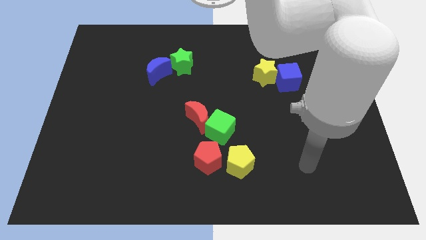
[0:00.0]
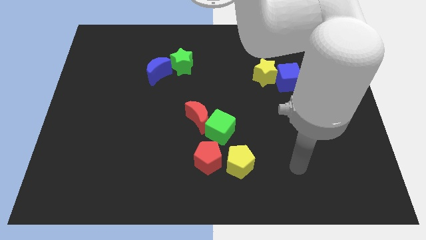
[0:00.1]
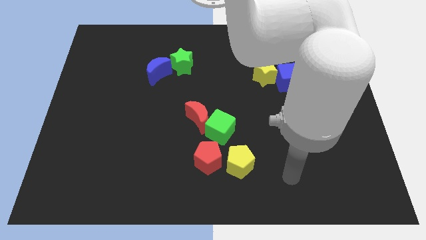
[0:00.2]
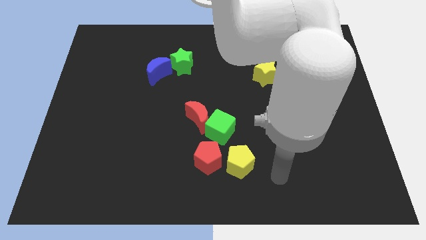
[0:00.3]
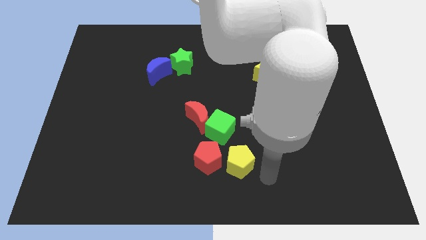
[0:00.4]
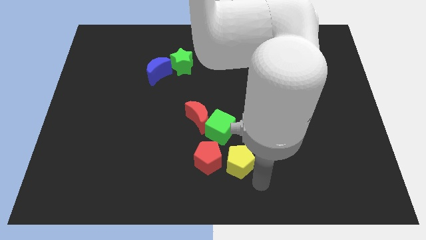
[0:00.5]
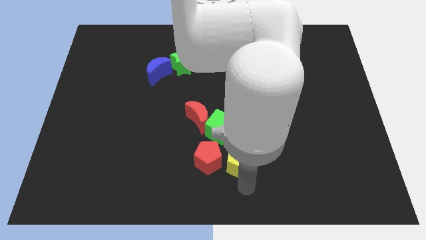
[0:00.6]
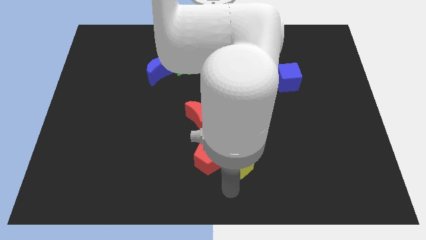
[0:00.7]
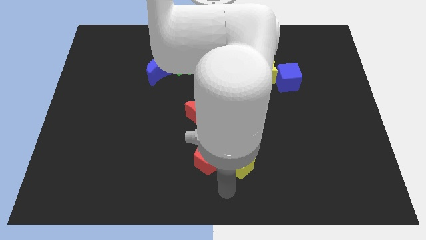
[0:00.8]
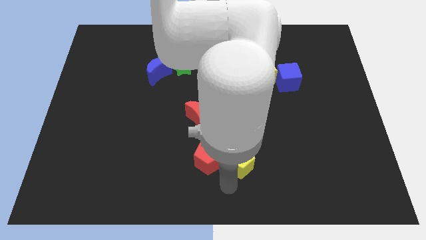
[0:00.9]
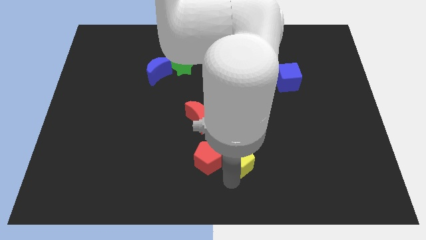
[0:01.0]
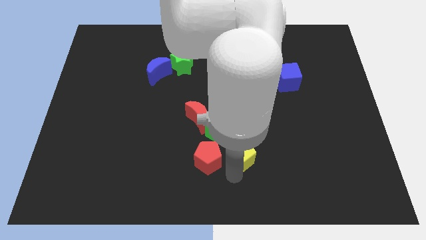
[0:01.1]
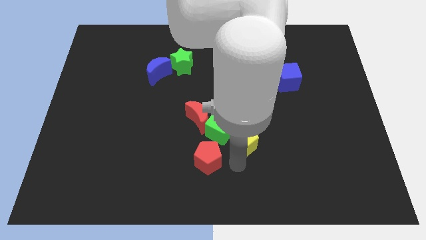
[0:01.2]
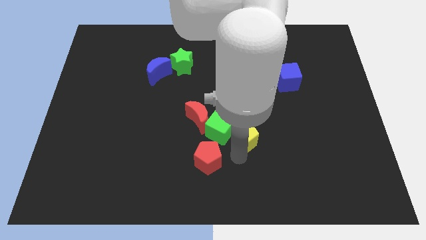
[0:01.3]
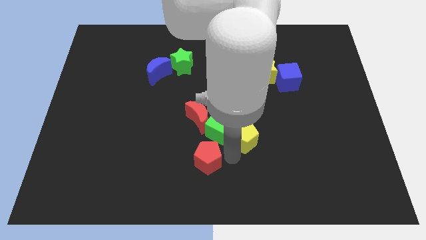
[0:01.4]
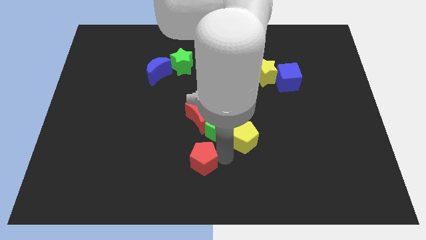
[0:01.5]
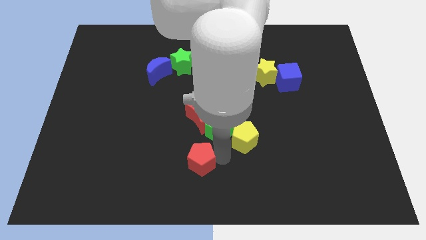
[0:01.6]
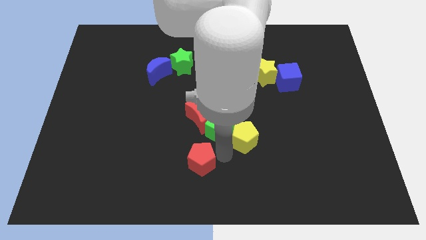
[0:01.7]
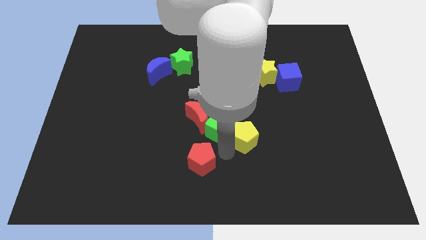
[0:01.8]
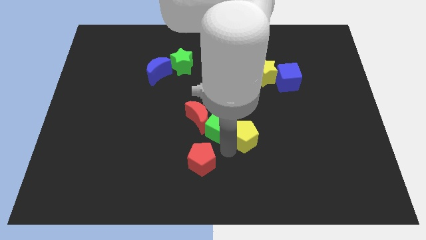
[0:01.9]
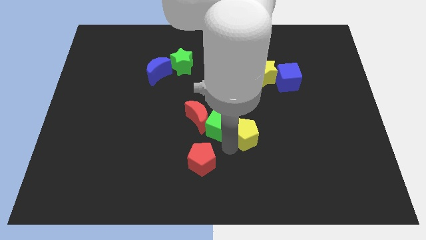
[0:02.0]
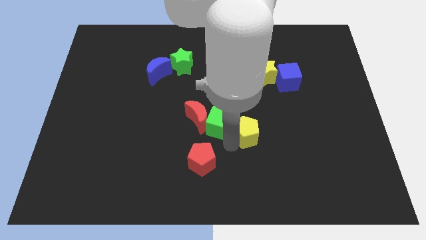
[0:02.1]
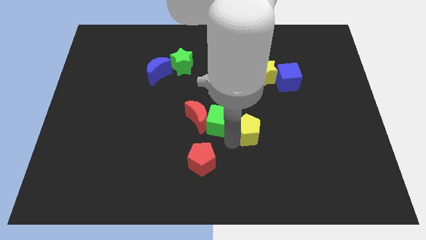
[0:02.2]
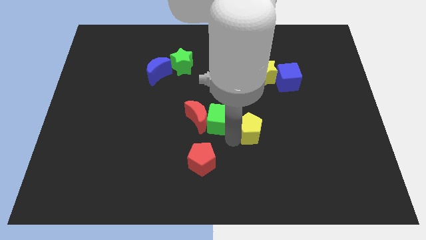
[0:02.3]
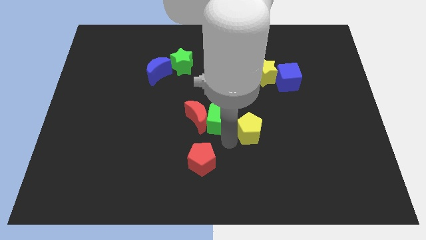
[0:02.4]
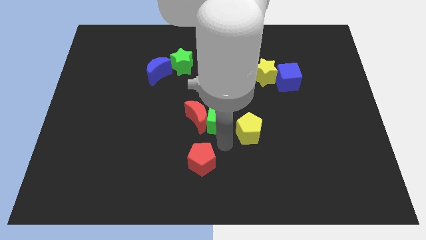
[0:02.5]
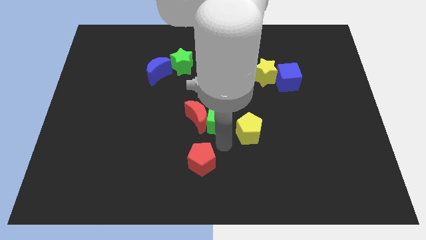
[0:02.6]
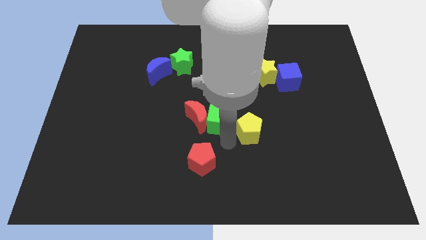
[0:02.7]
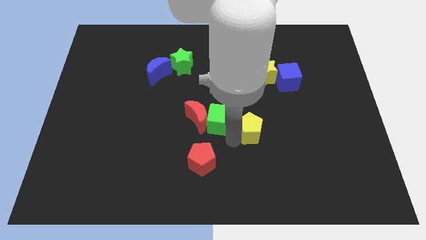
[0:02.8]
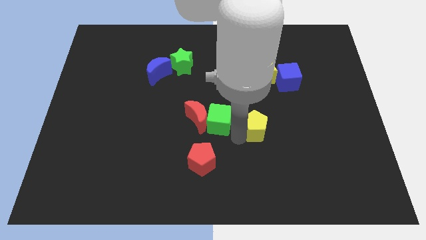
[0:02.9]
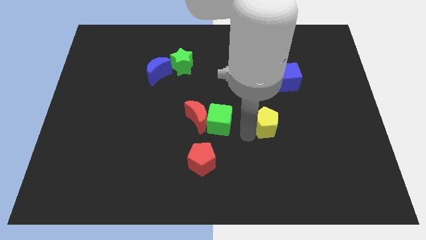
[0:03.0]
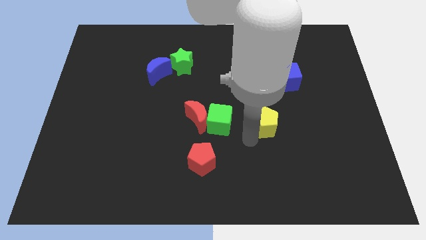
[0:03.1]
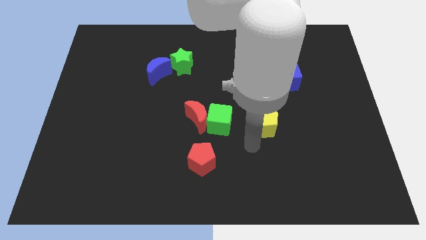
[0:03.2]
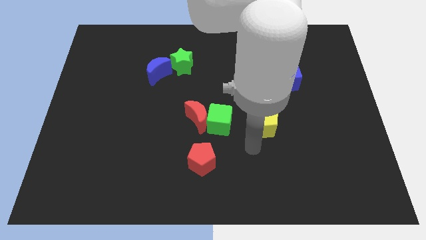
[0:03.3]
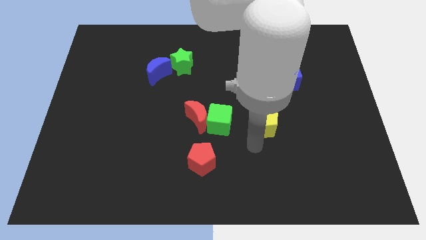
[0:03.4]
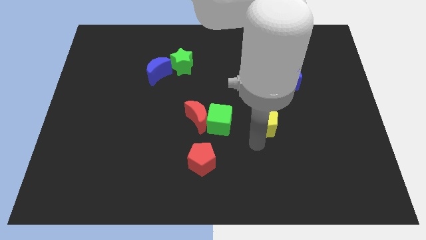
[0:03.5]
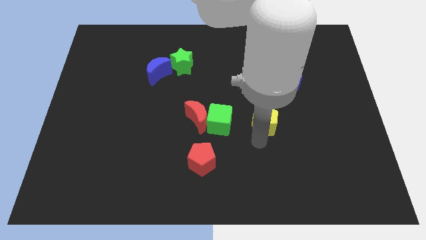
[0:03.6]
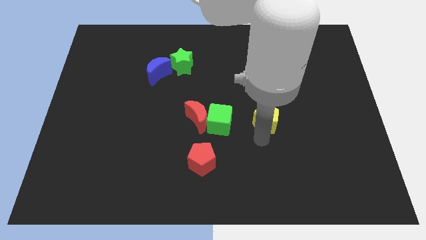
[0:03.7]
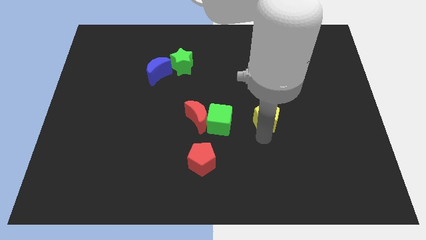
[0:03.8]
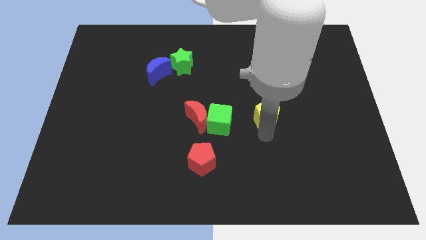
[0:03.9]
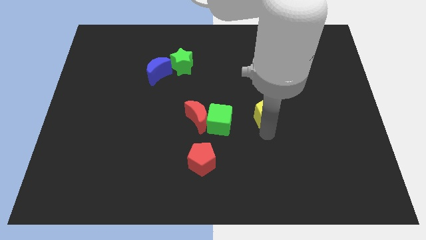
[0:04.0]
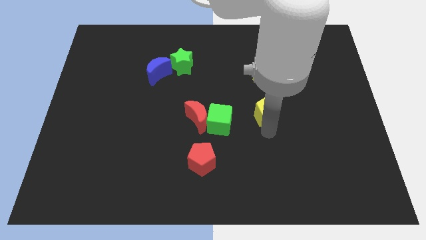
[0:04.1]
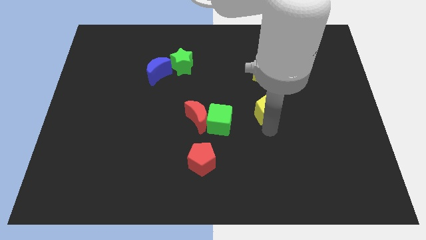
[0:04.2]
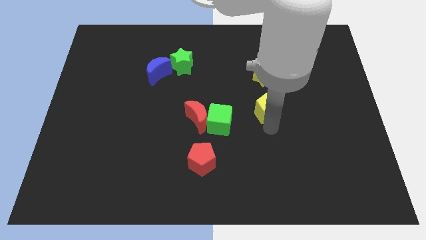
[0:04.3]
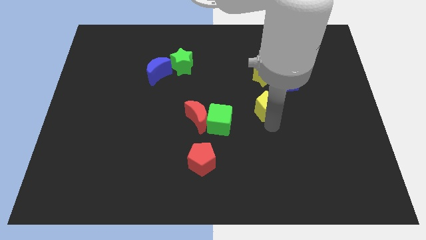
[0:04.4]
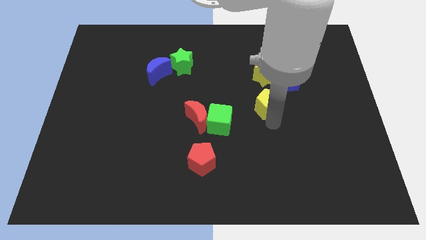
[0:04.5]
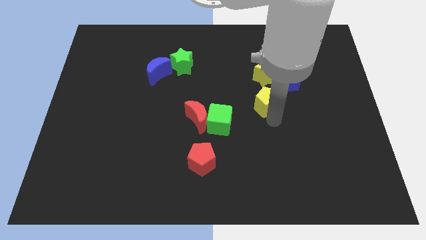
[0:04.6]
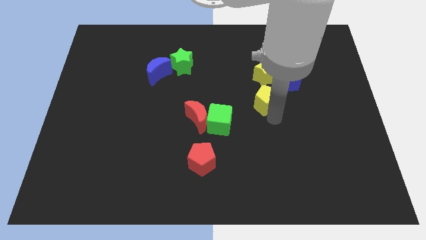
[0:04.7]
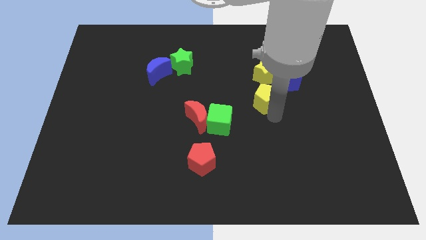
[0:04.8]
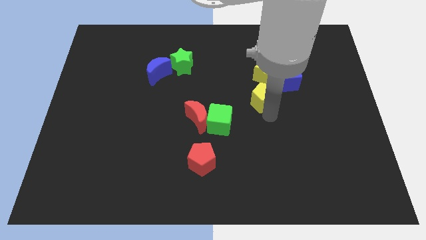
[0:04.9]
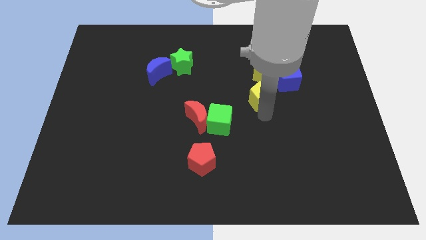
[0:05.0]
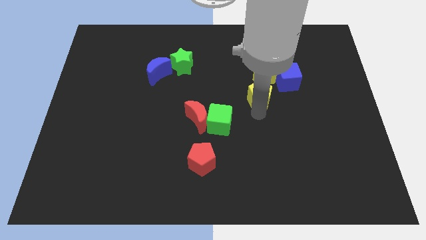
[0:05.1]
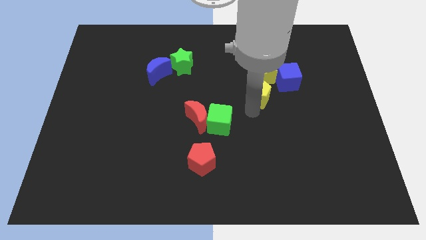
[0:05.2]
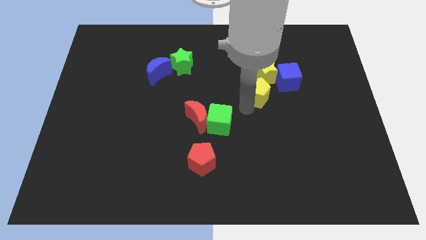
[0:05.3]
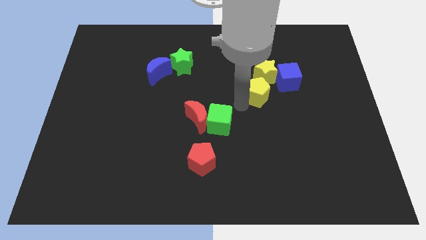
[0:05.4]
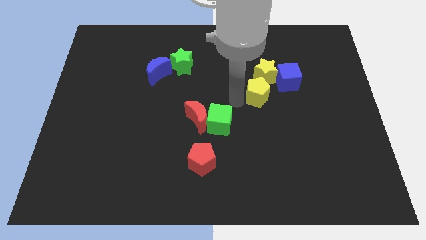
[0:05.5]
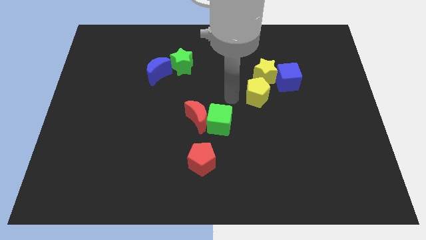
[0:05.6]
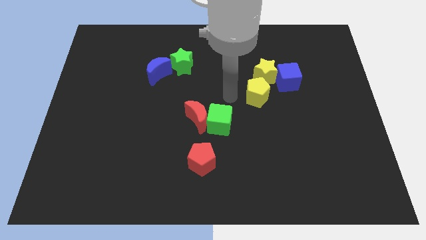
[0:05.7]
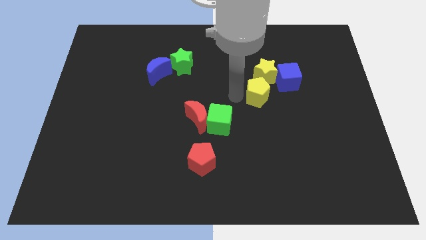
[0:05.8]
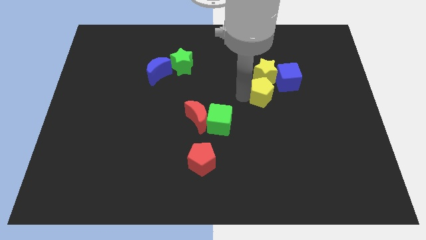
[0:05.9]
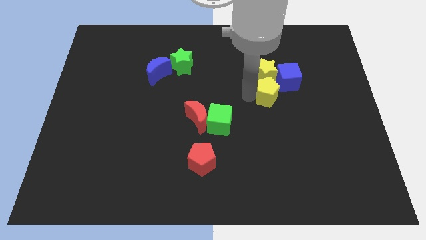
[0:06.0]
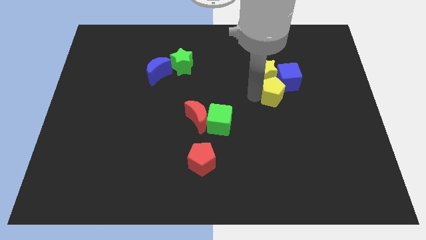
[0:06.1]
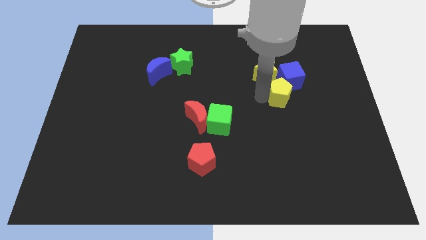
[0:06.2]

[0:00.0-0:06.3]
push the yellow pentagon to the blue cube

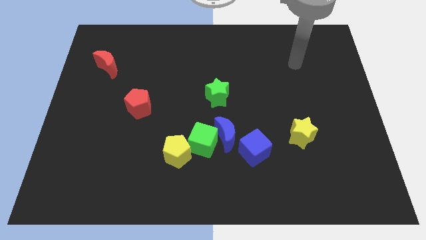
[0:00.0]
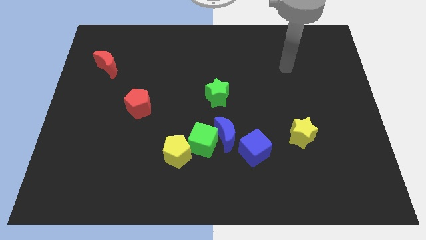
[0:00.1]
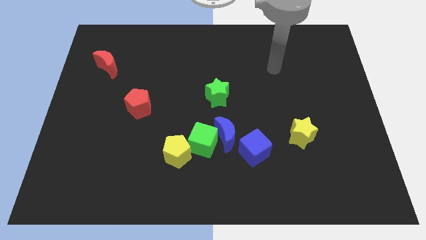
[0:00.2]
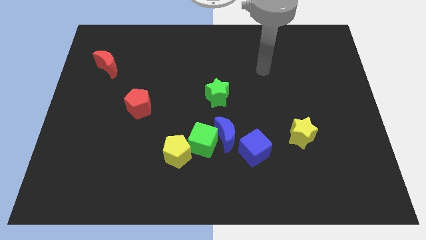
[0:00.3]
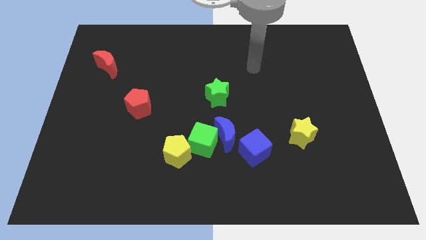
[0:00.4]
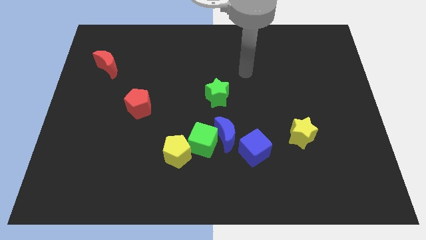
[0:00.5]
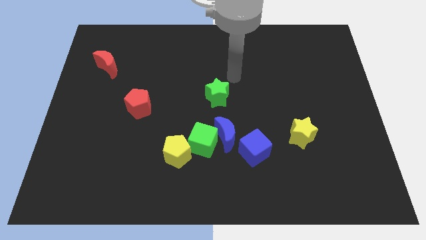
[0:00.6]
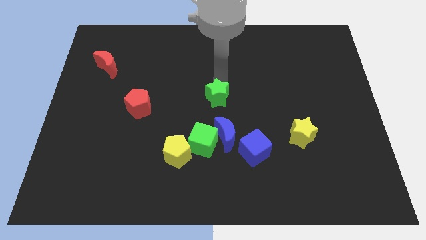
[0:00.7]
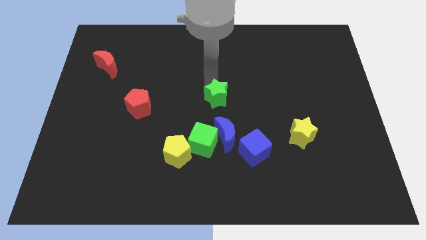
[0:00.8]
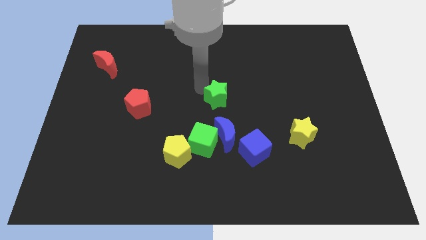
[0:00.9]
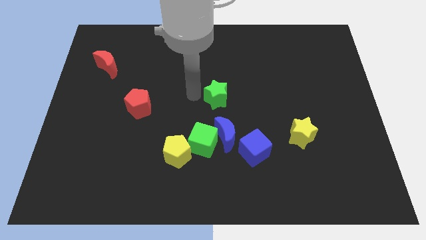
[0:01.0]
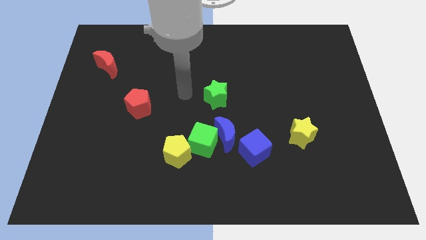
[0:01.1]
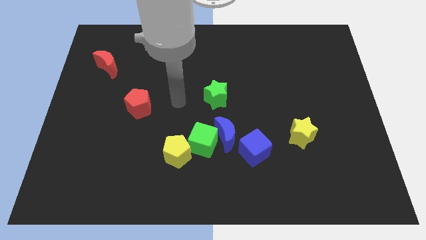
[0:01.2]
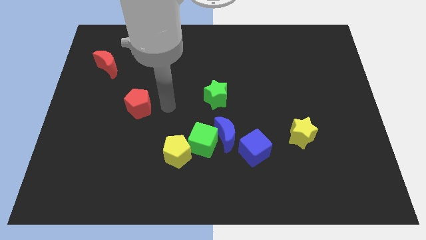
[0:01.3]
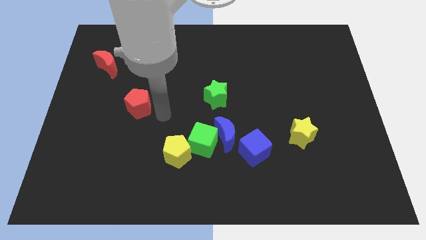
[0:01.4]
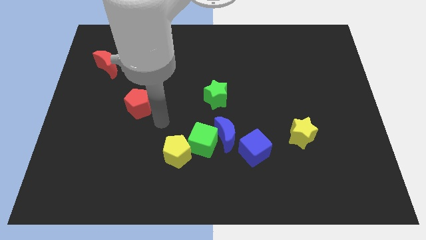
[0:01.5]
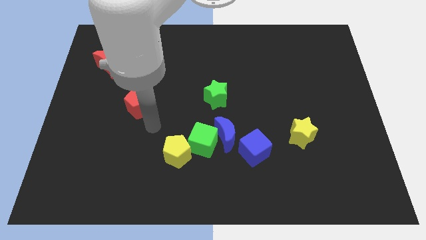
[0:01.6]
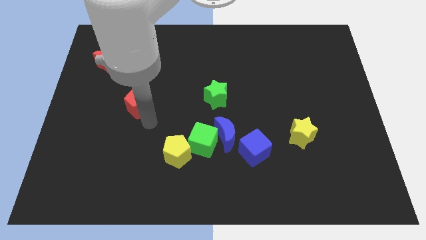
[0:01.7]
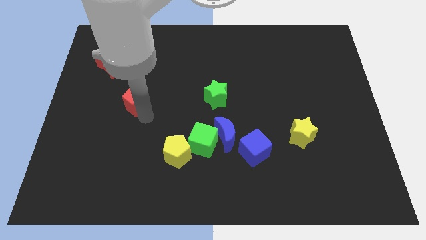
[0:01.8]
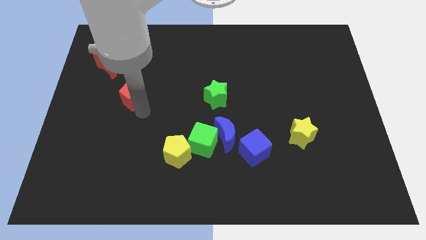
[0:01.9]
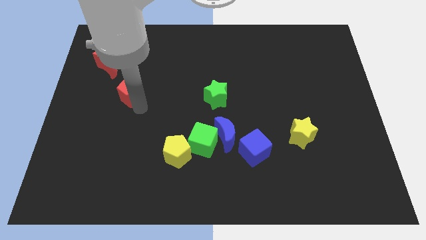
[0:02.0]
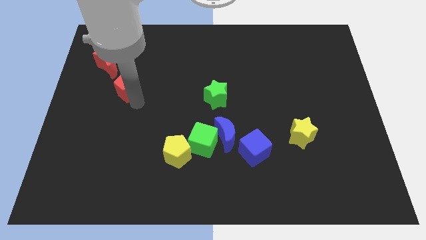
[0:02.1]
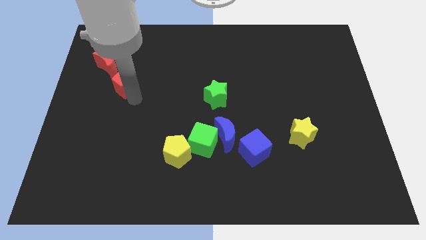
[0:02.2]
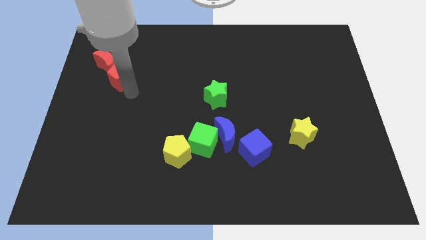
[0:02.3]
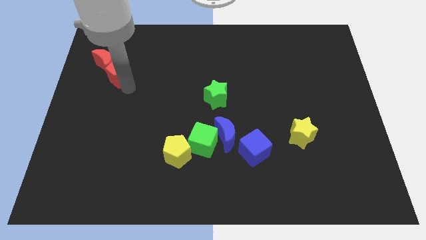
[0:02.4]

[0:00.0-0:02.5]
push the red pentagon close to the red moon
